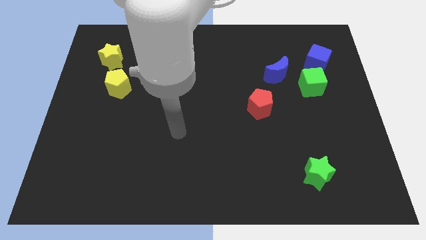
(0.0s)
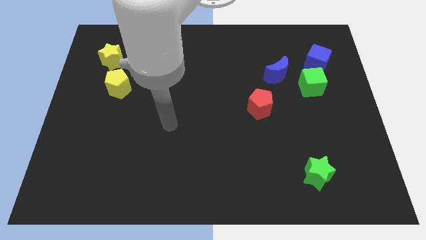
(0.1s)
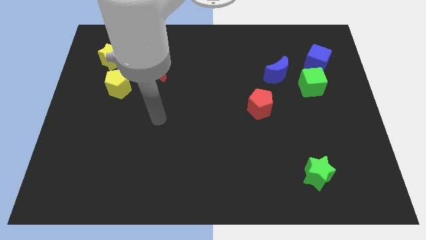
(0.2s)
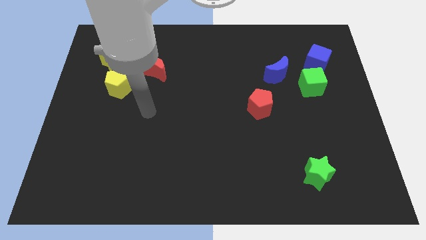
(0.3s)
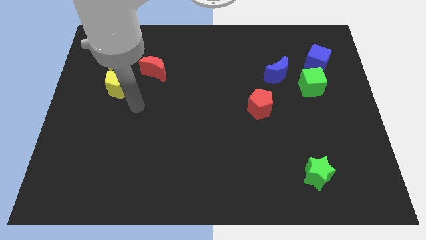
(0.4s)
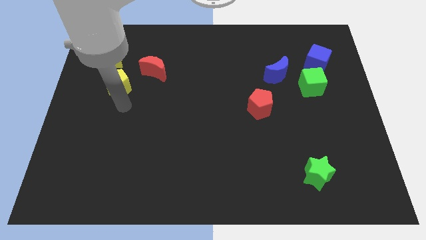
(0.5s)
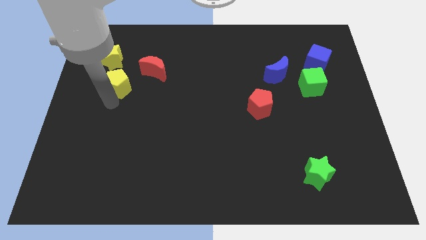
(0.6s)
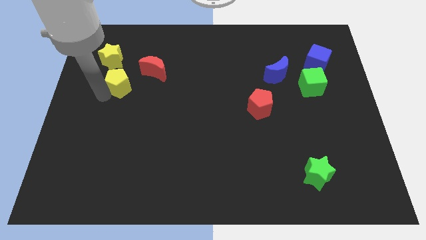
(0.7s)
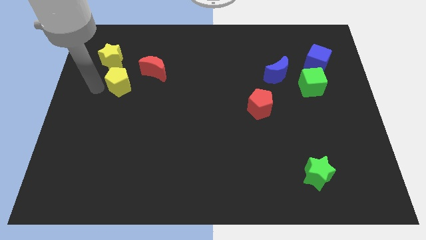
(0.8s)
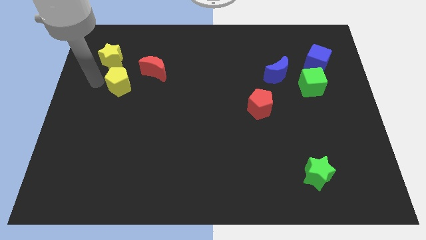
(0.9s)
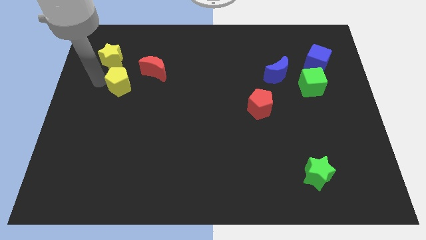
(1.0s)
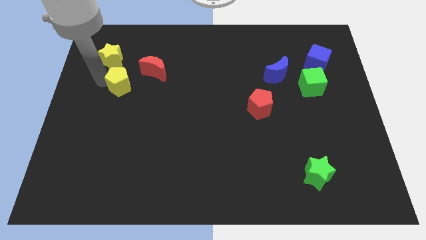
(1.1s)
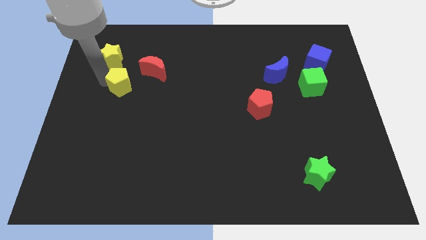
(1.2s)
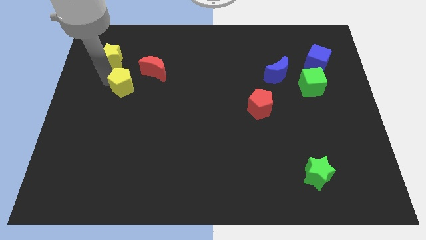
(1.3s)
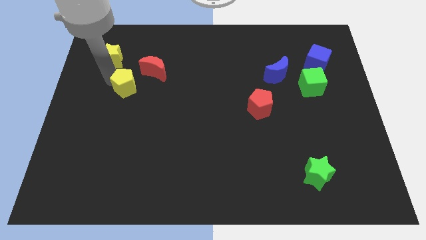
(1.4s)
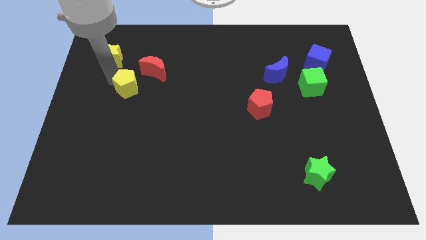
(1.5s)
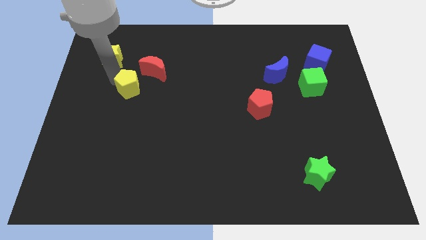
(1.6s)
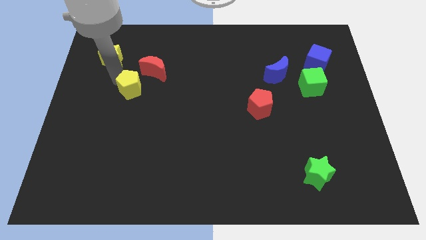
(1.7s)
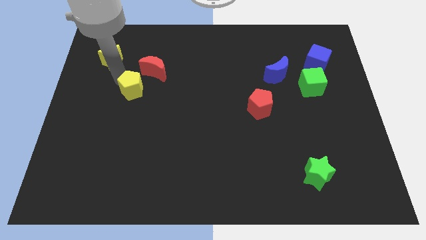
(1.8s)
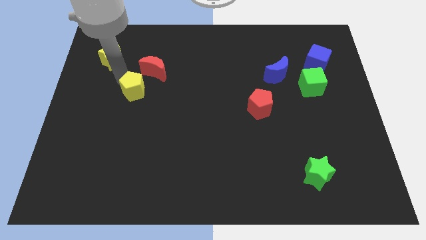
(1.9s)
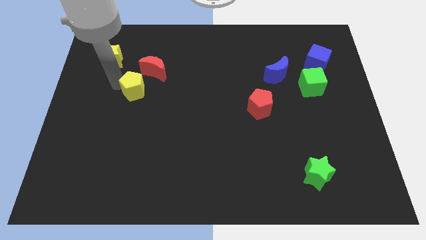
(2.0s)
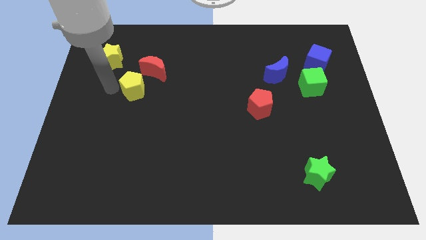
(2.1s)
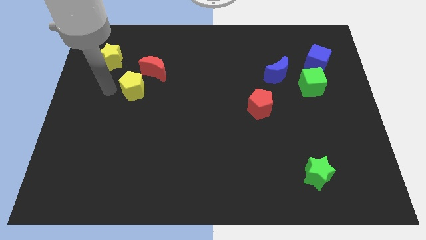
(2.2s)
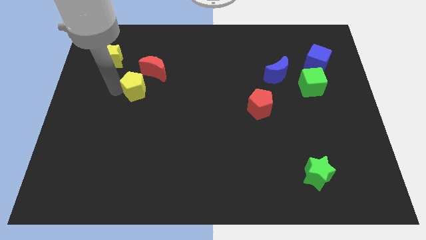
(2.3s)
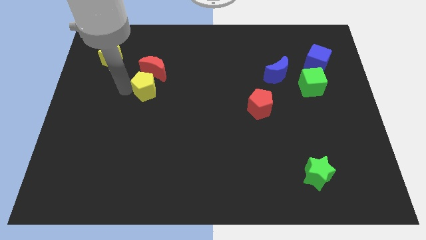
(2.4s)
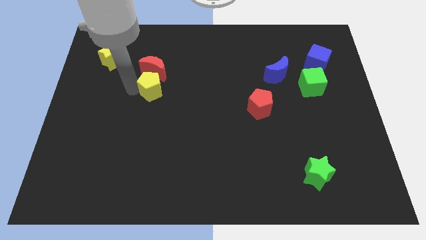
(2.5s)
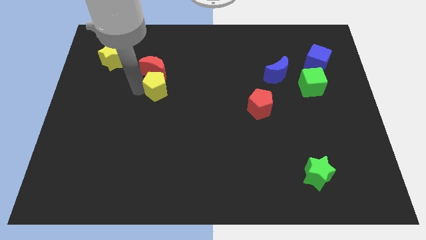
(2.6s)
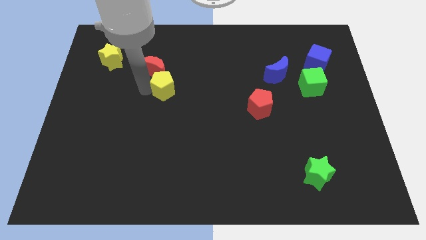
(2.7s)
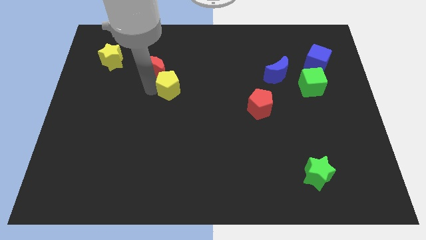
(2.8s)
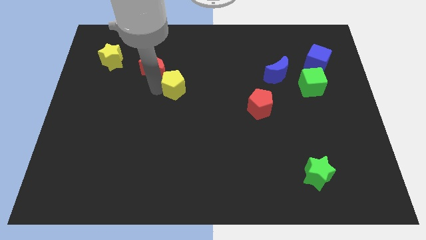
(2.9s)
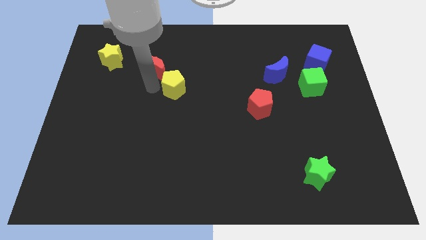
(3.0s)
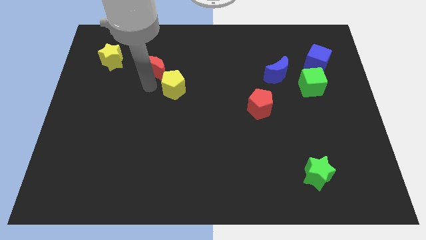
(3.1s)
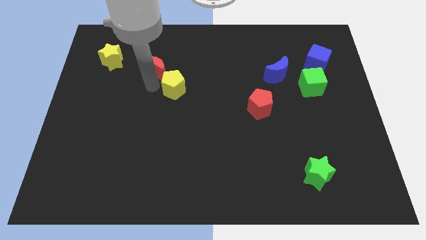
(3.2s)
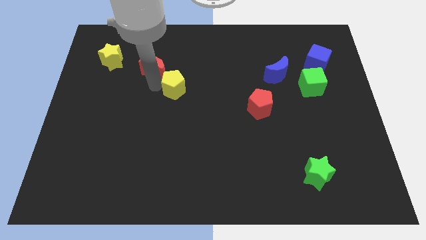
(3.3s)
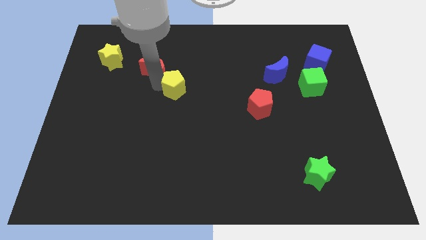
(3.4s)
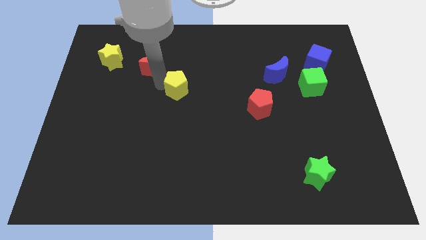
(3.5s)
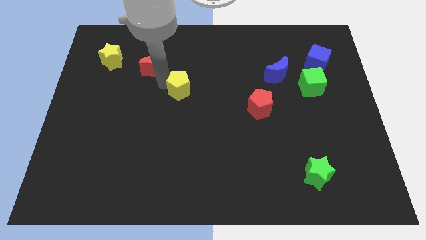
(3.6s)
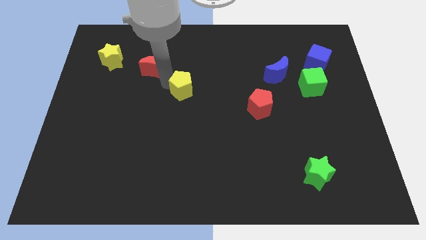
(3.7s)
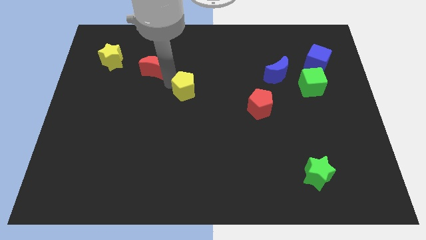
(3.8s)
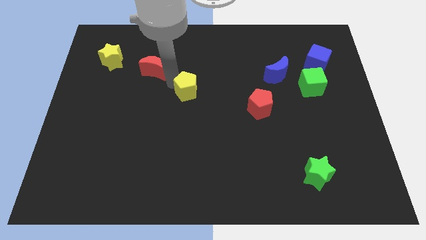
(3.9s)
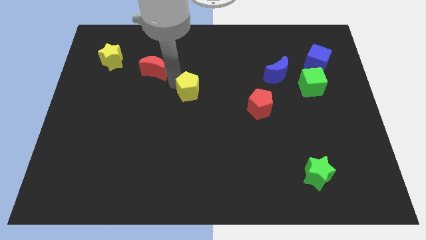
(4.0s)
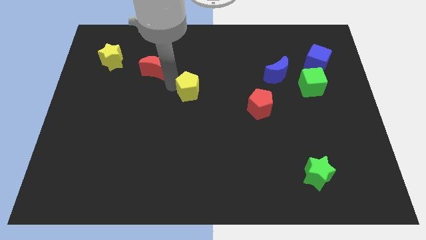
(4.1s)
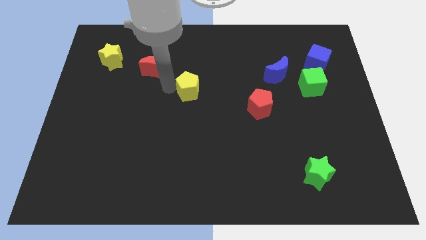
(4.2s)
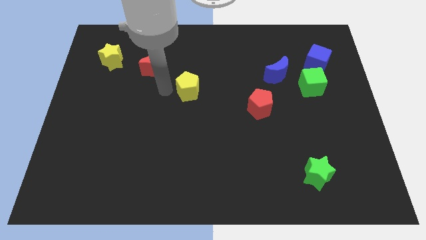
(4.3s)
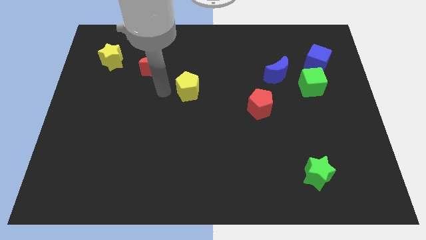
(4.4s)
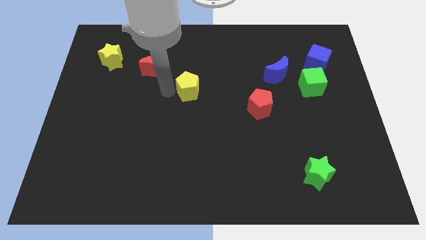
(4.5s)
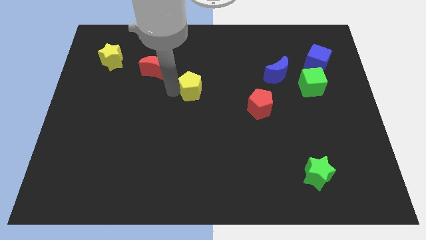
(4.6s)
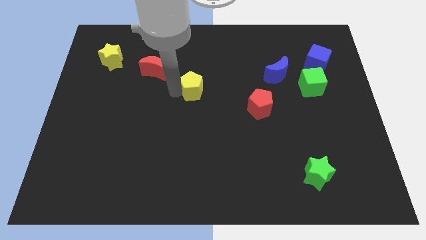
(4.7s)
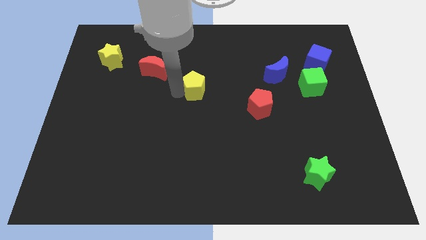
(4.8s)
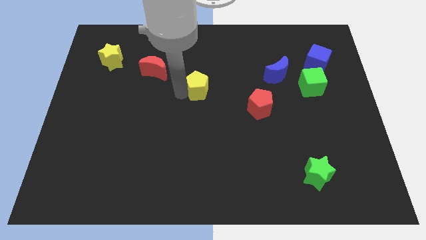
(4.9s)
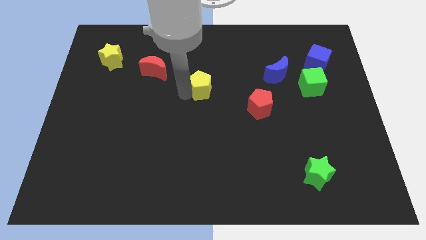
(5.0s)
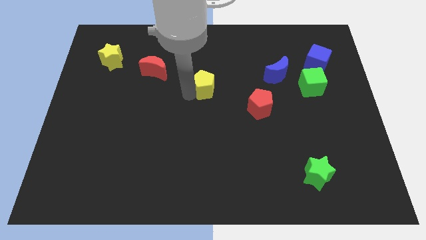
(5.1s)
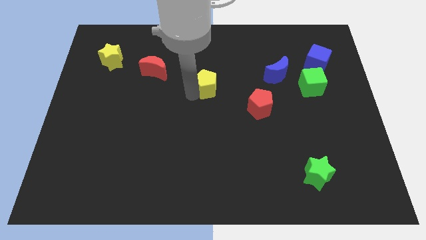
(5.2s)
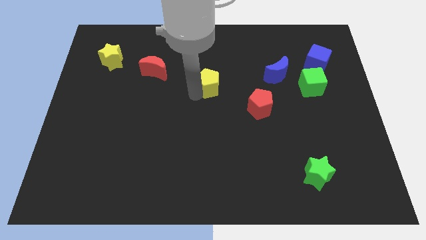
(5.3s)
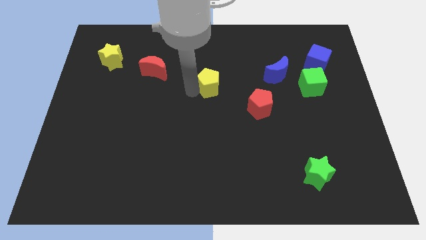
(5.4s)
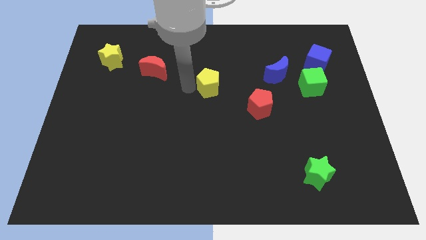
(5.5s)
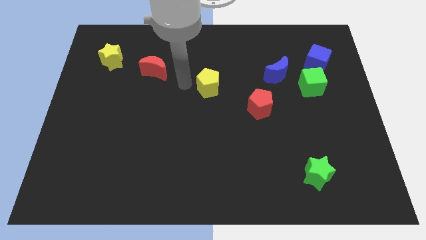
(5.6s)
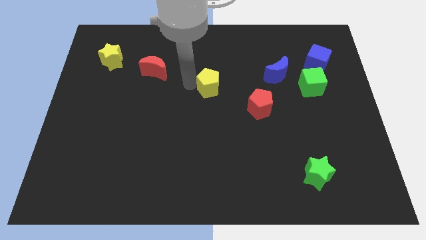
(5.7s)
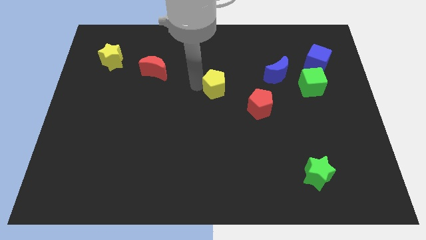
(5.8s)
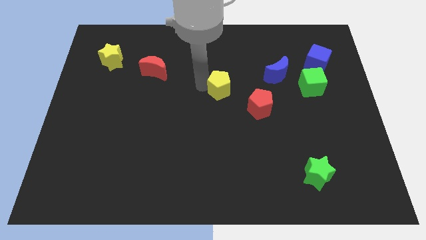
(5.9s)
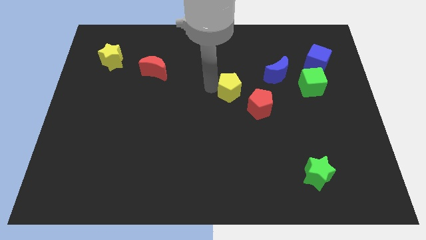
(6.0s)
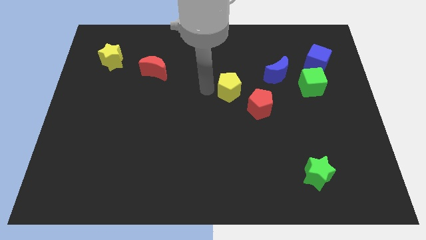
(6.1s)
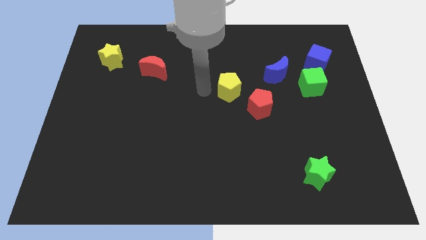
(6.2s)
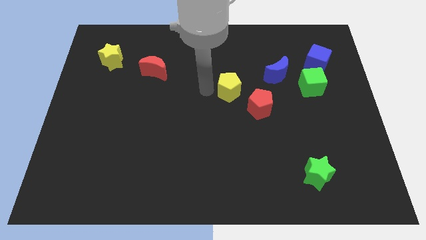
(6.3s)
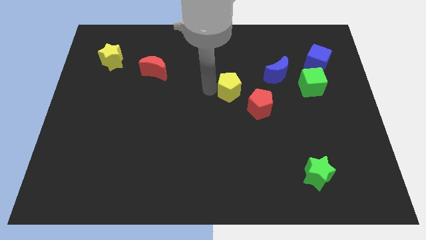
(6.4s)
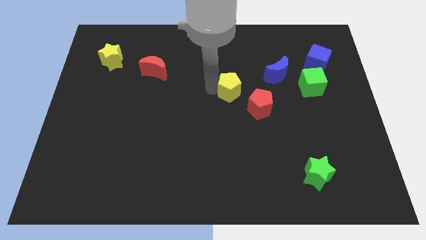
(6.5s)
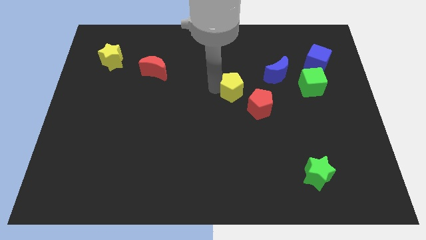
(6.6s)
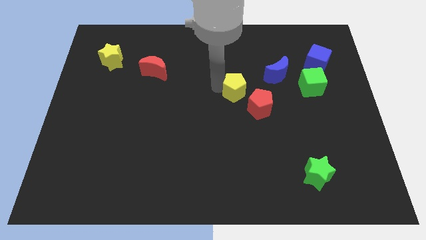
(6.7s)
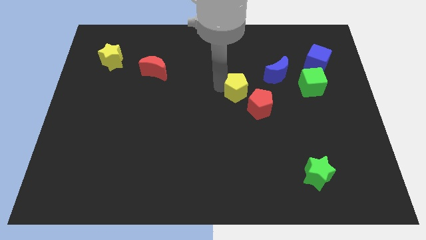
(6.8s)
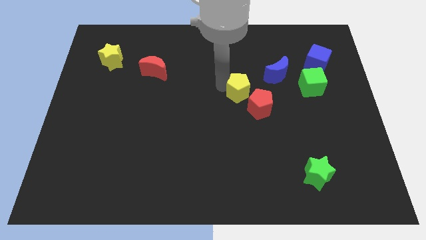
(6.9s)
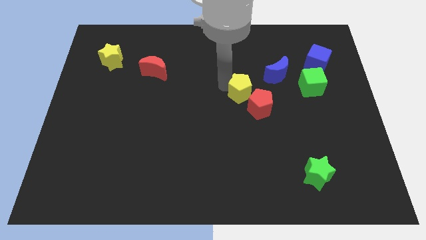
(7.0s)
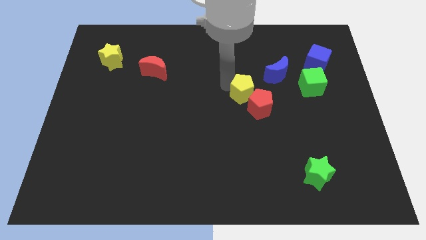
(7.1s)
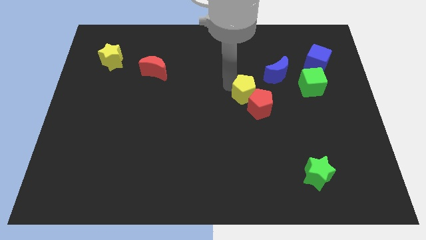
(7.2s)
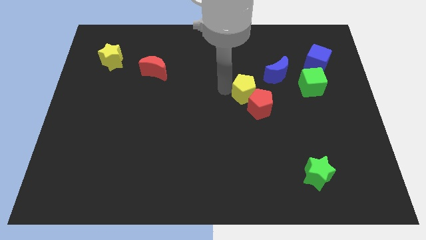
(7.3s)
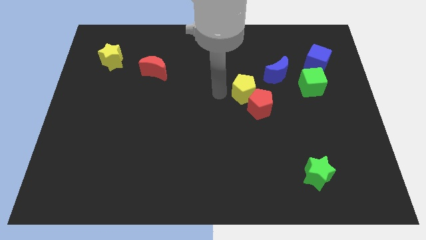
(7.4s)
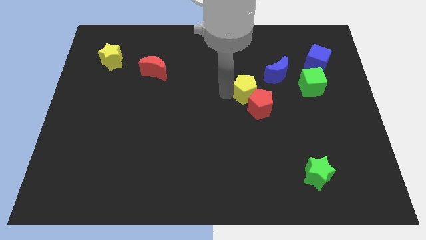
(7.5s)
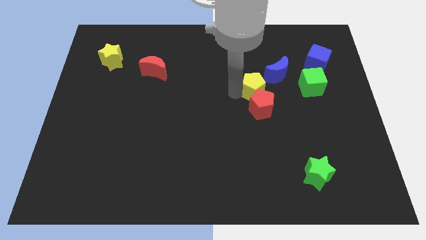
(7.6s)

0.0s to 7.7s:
move the yellow pentagon diagonally up and to the right of the red pentagon
